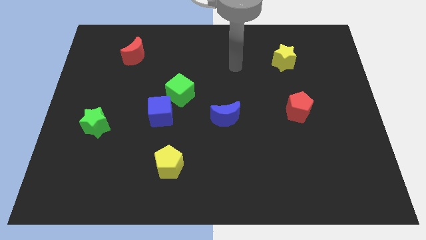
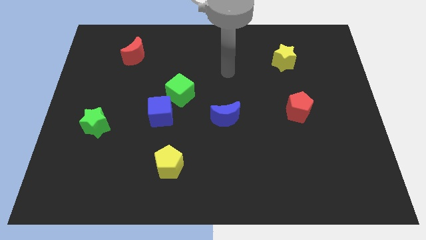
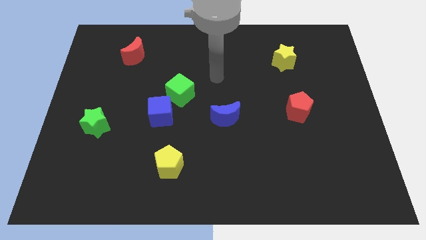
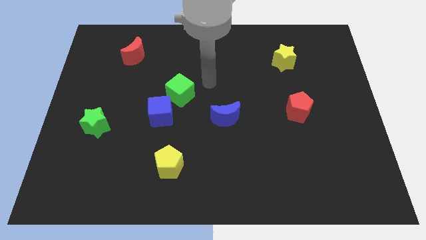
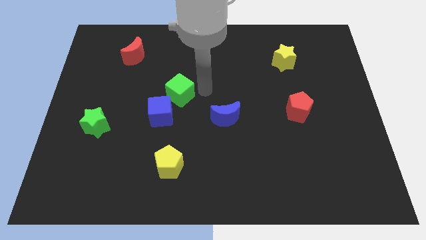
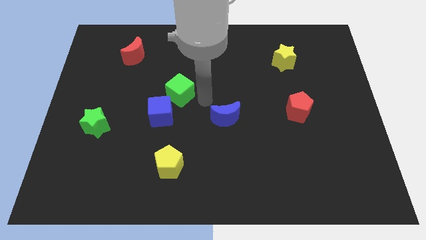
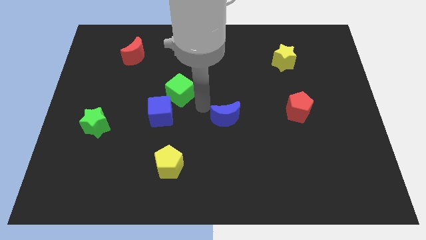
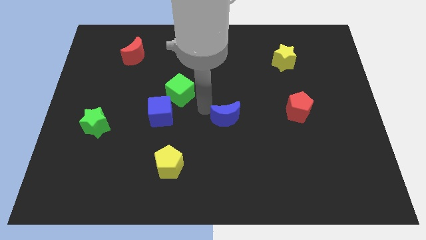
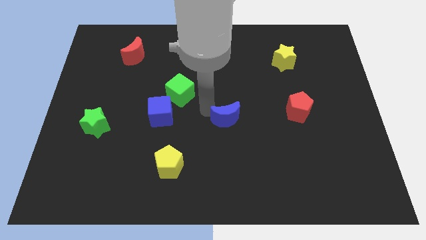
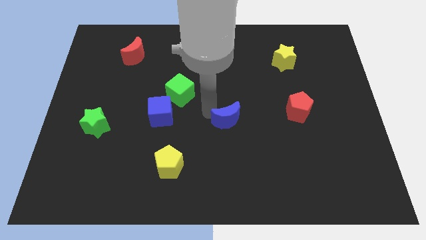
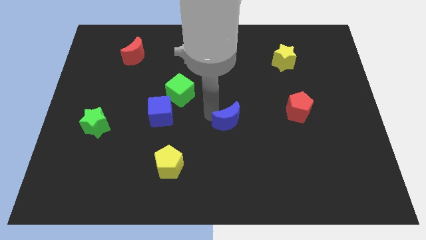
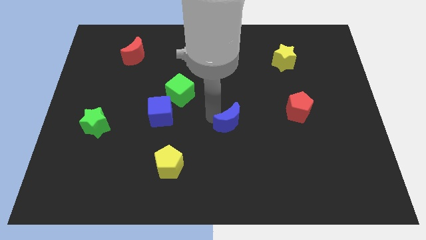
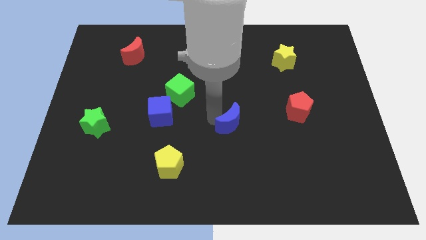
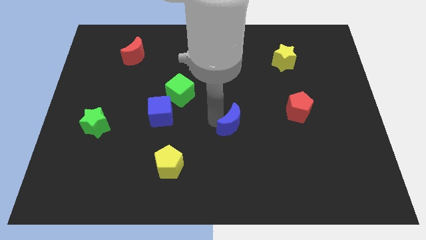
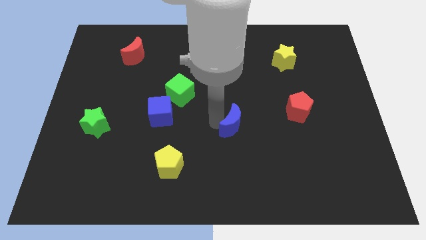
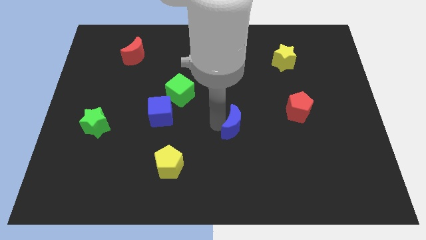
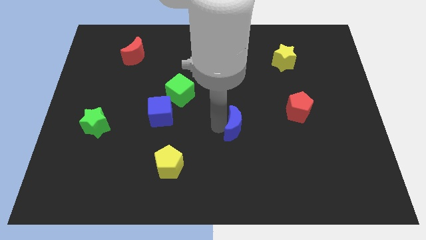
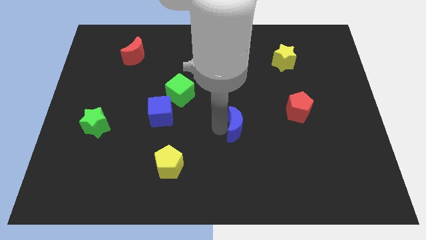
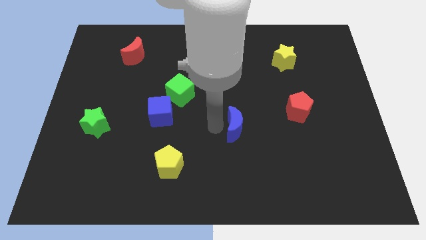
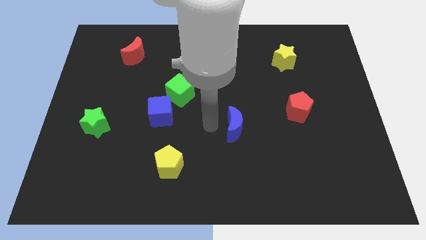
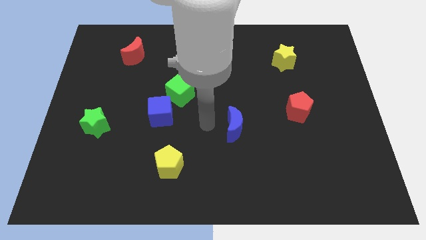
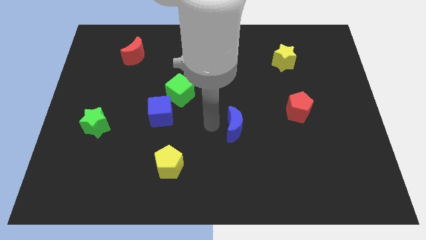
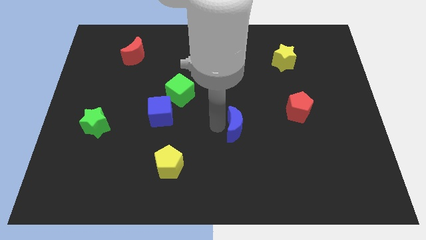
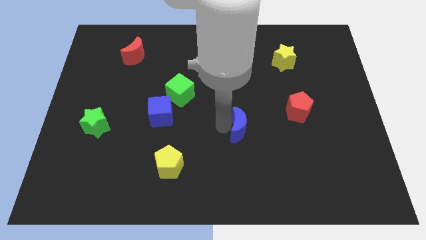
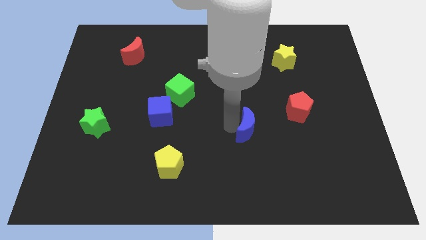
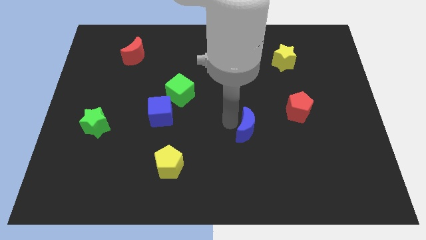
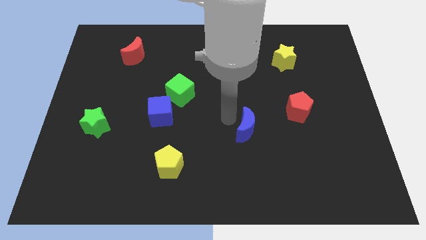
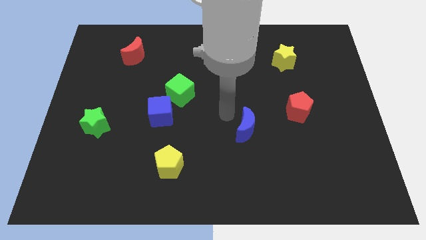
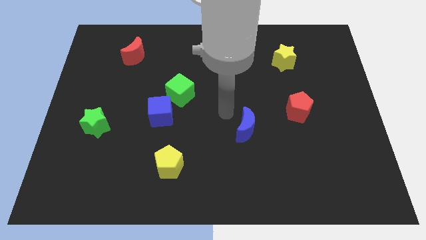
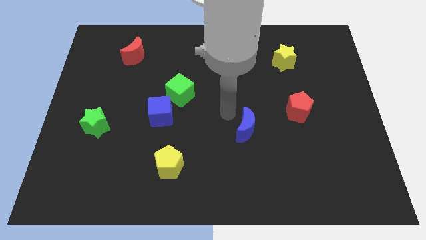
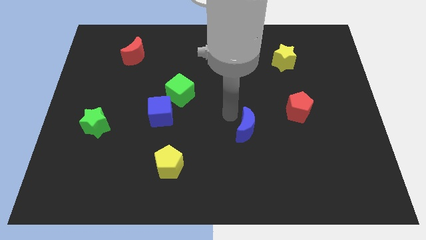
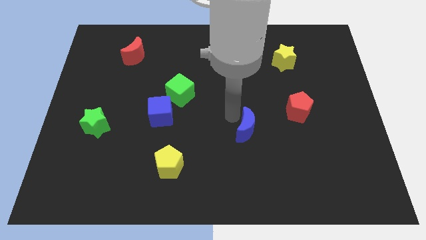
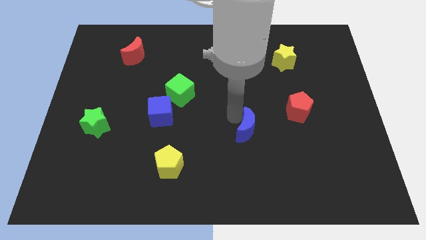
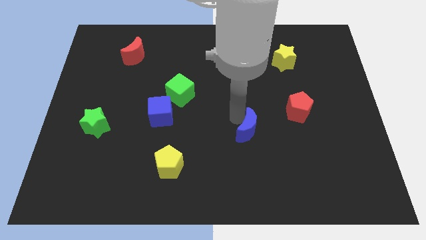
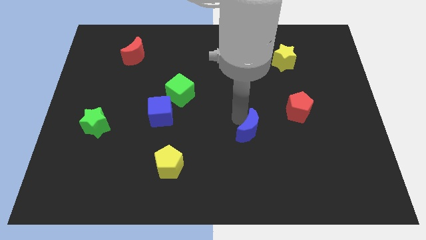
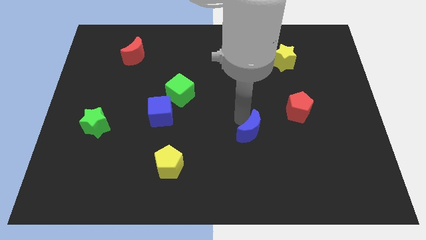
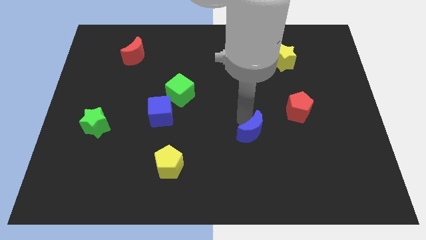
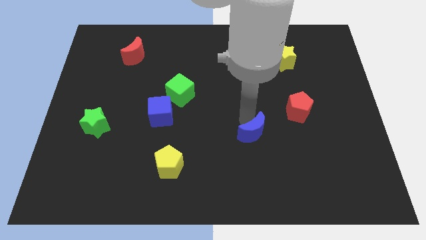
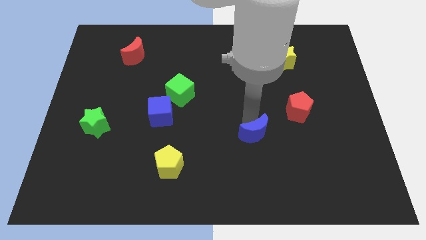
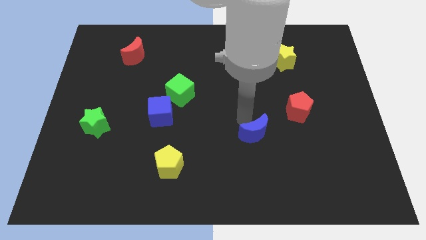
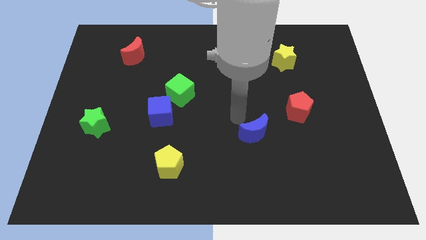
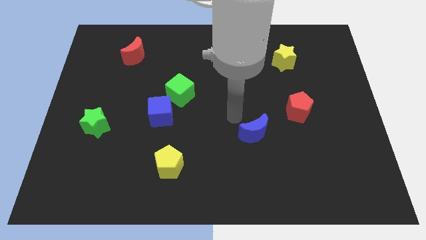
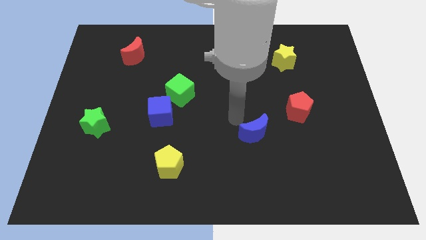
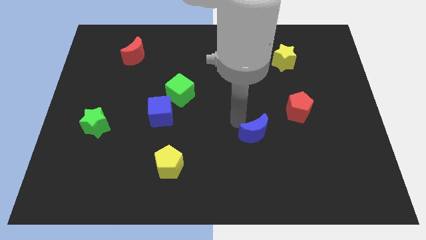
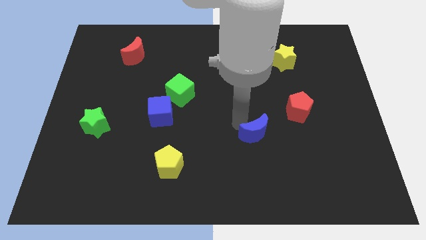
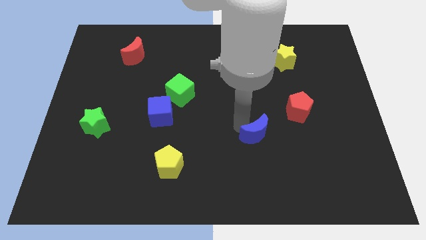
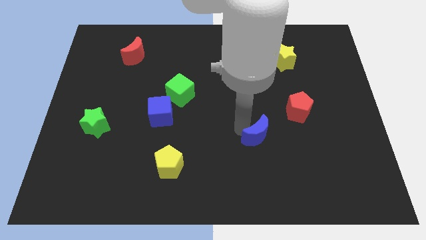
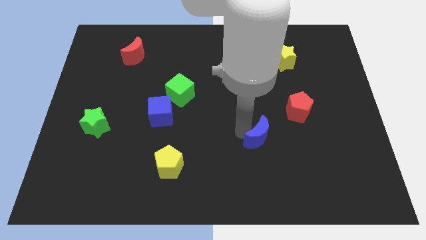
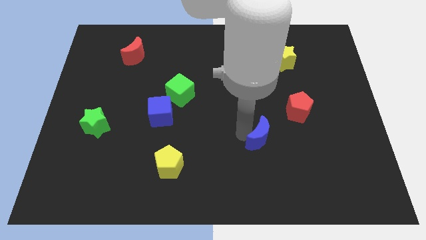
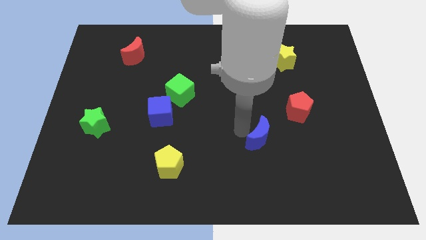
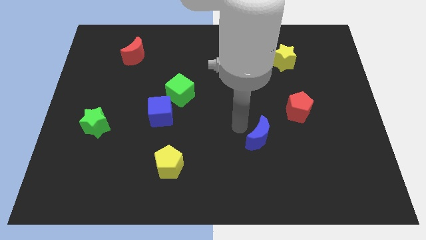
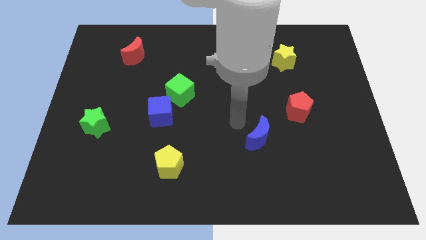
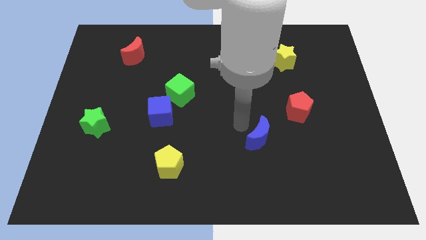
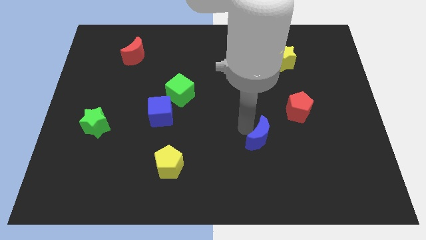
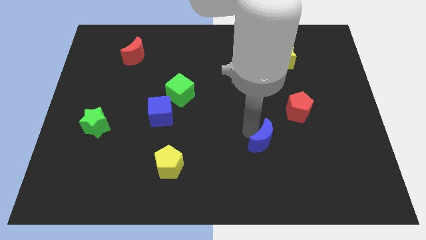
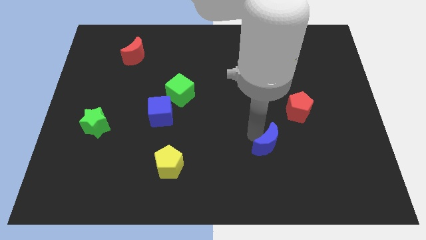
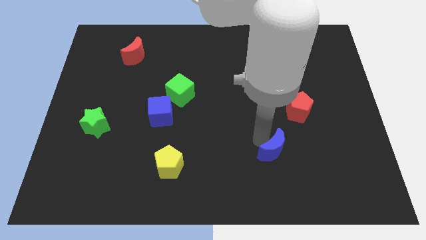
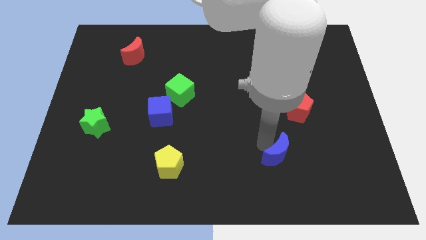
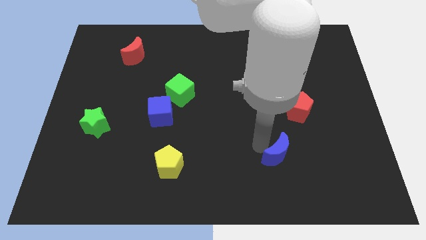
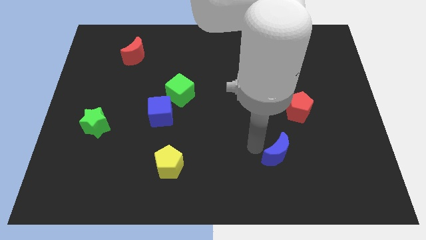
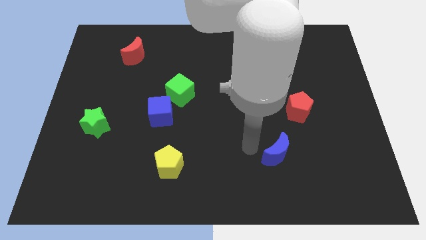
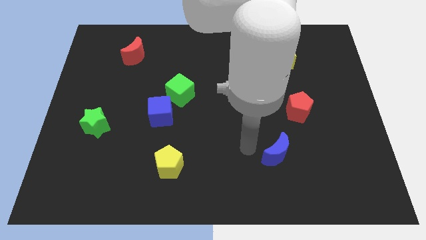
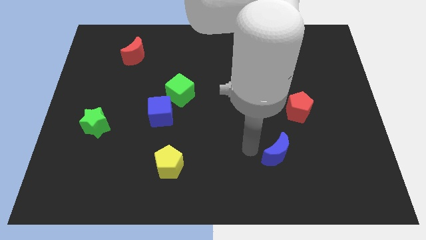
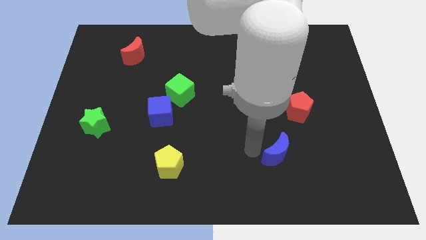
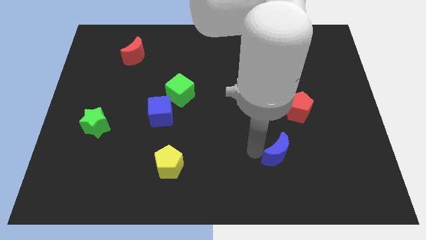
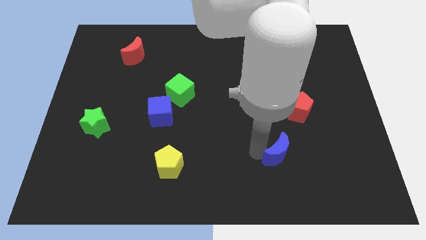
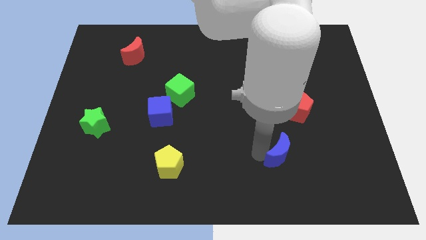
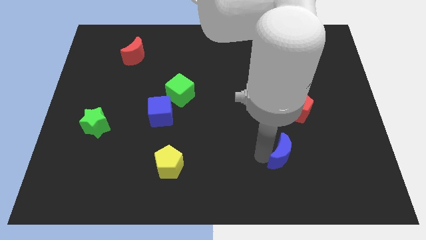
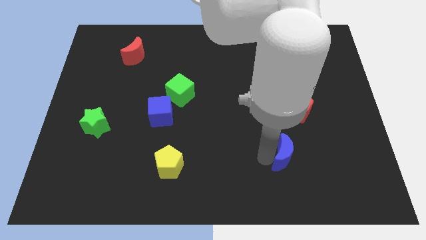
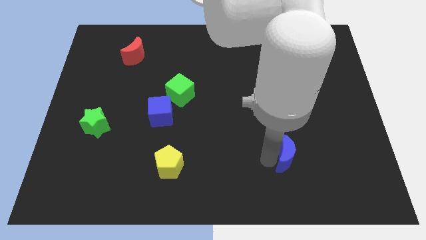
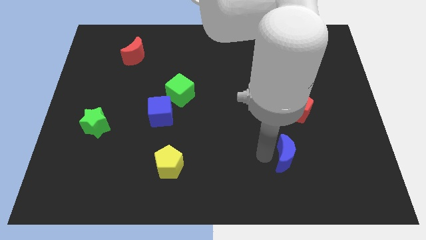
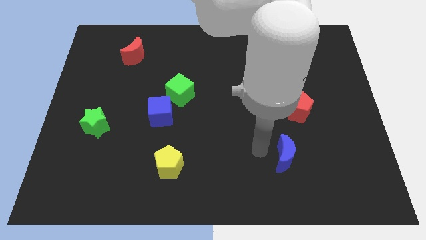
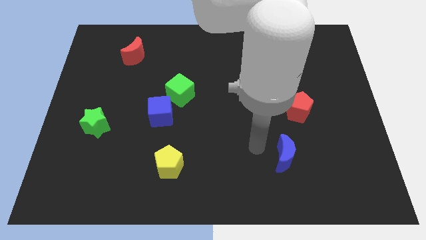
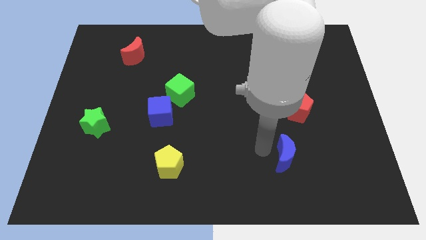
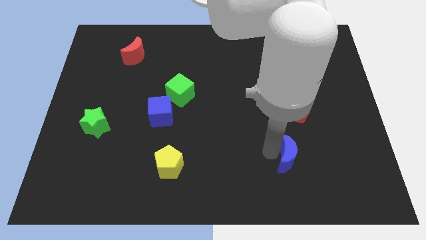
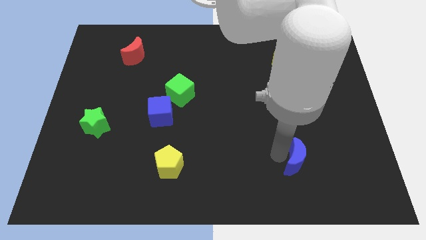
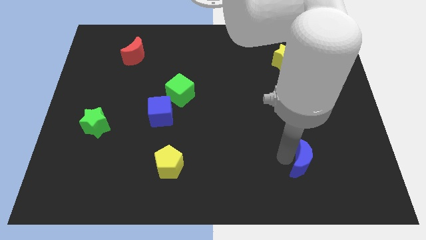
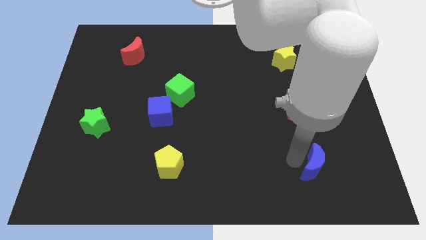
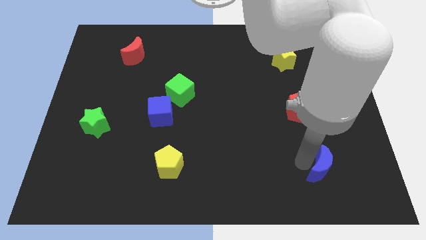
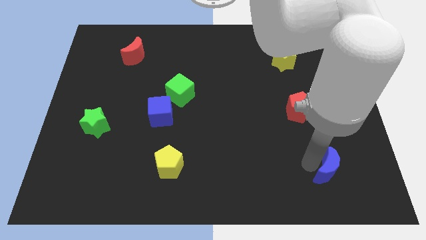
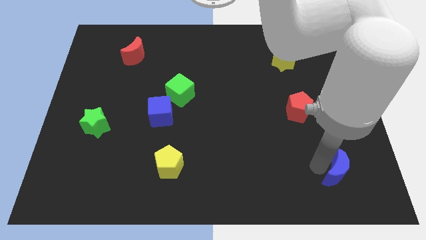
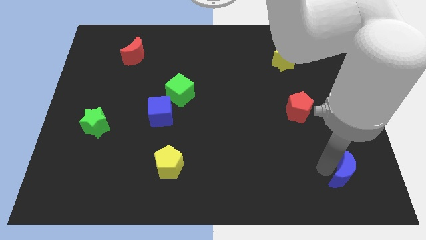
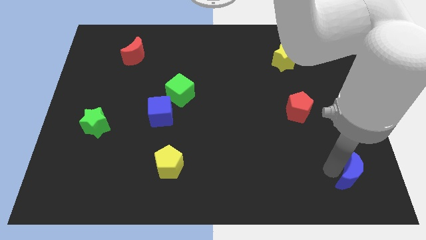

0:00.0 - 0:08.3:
put the blue moon to the bottom right
